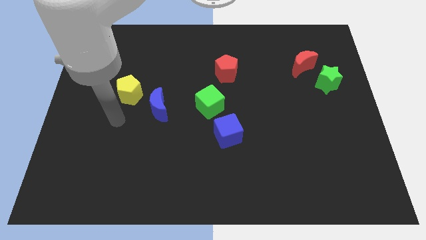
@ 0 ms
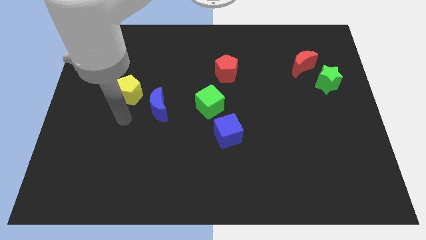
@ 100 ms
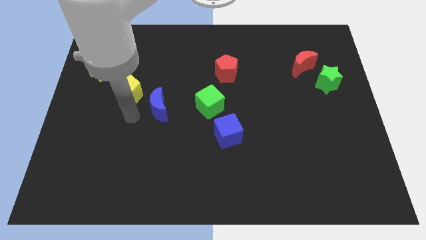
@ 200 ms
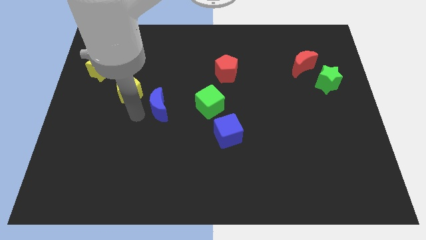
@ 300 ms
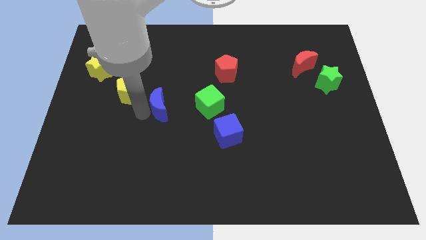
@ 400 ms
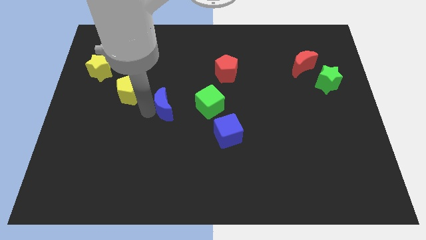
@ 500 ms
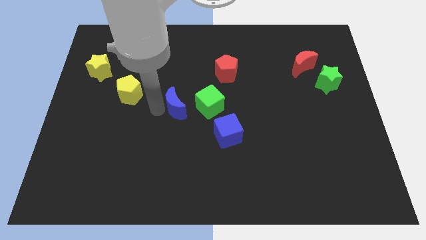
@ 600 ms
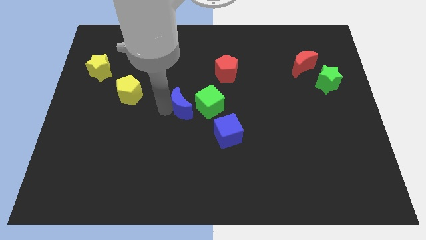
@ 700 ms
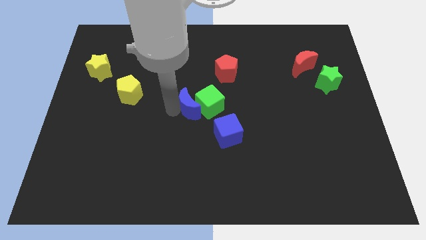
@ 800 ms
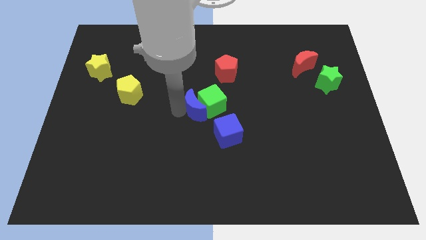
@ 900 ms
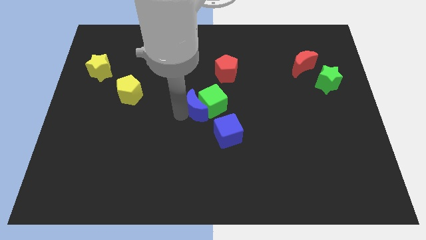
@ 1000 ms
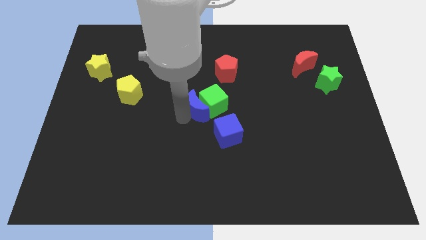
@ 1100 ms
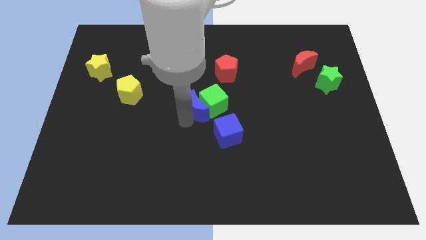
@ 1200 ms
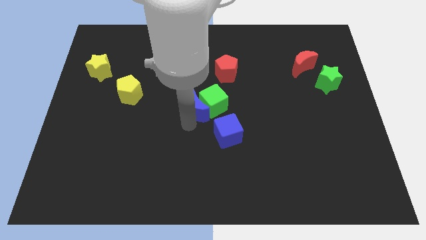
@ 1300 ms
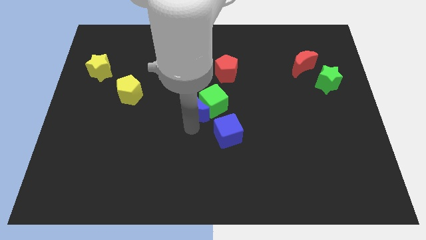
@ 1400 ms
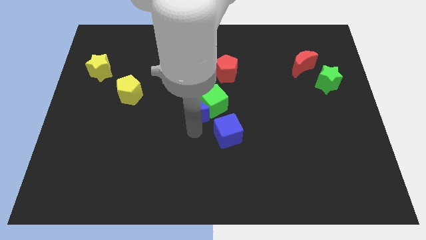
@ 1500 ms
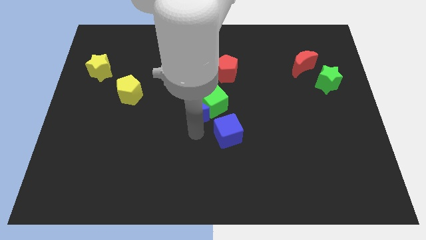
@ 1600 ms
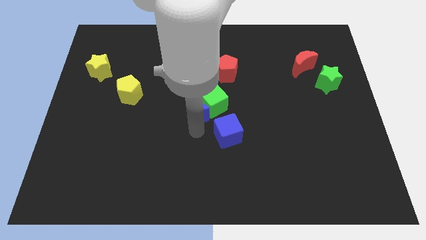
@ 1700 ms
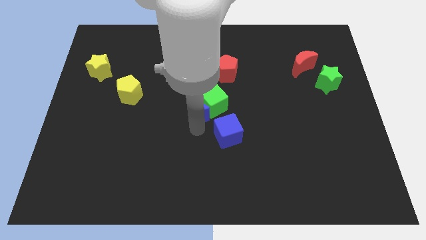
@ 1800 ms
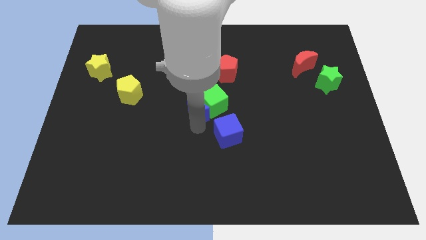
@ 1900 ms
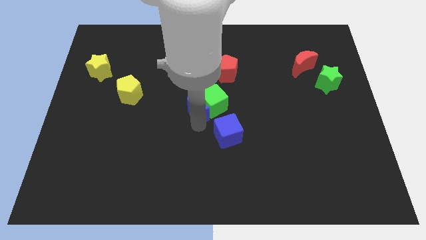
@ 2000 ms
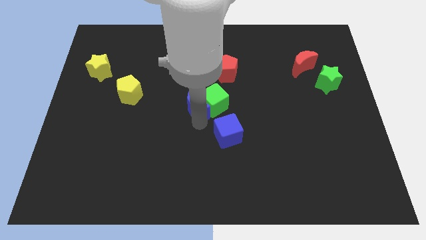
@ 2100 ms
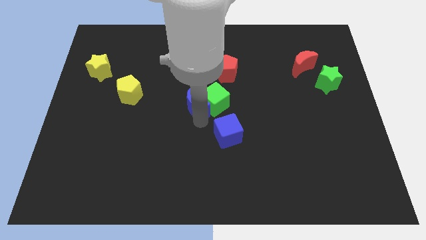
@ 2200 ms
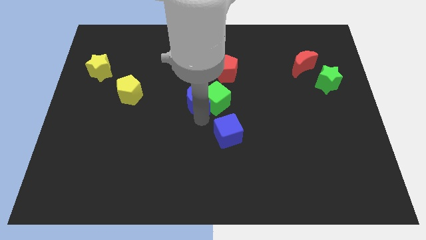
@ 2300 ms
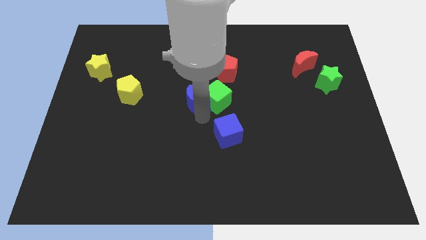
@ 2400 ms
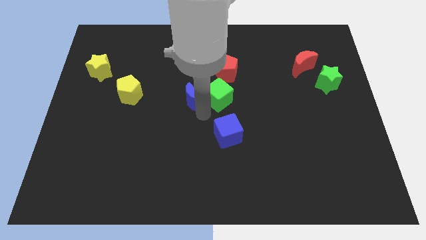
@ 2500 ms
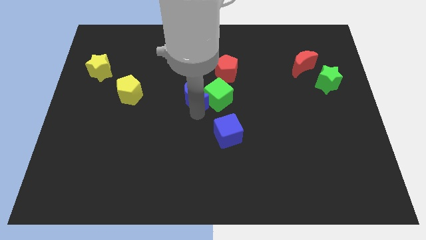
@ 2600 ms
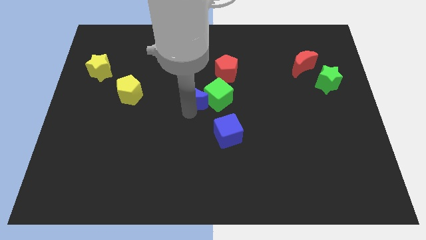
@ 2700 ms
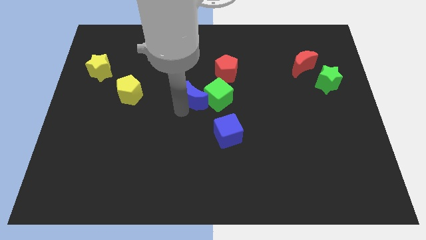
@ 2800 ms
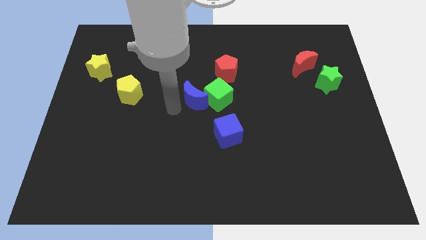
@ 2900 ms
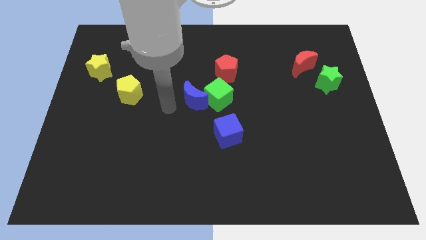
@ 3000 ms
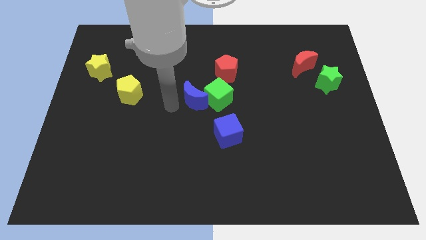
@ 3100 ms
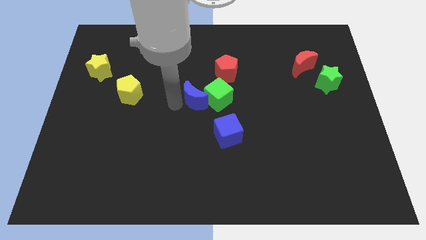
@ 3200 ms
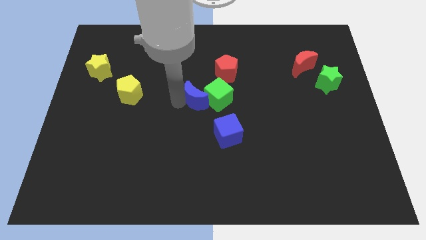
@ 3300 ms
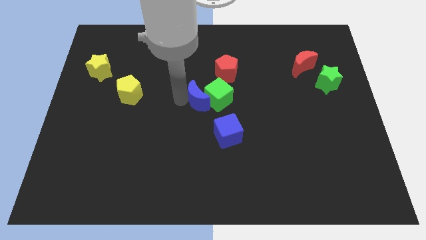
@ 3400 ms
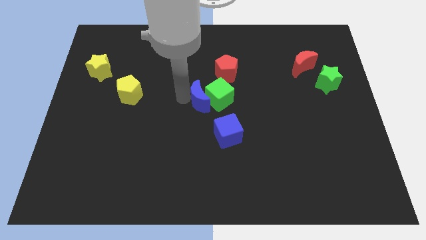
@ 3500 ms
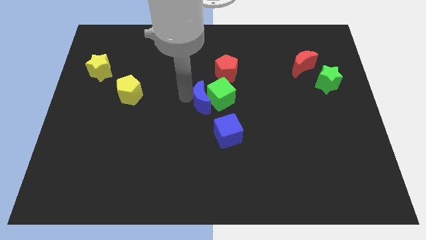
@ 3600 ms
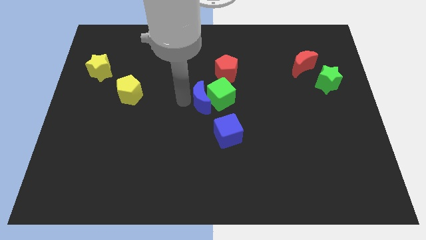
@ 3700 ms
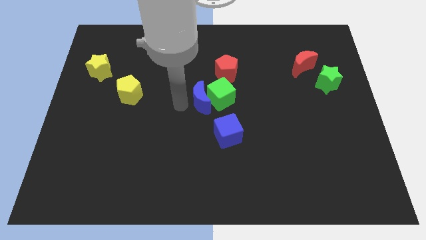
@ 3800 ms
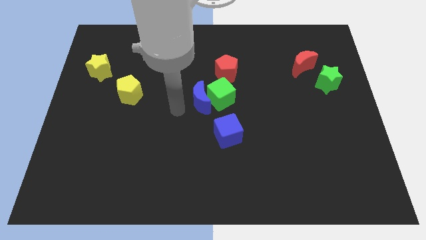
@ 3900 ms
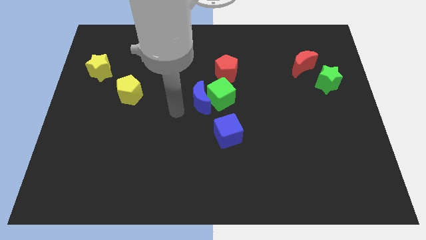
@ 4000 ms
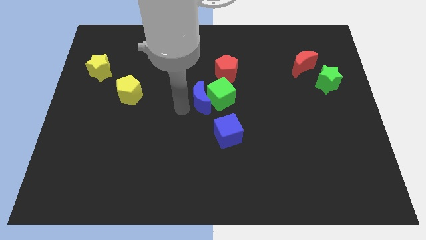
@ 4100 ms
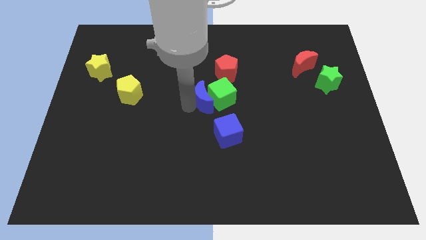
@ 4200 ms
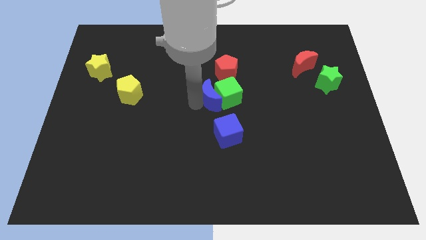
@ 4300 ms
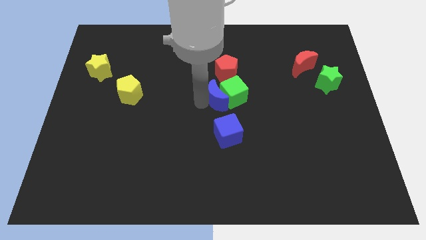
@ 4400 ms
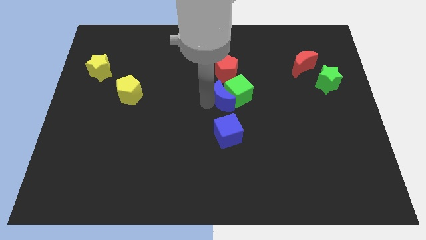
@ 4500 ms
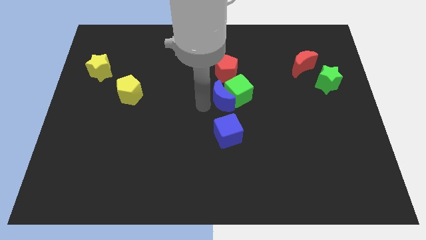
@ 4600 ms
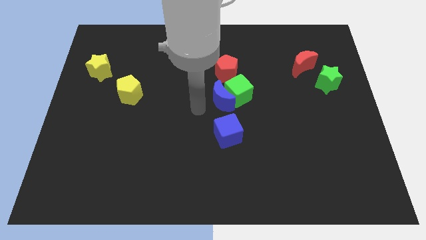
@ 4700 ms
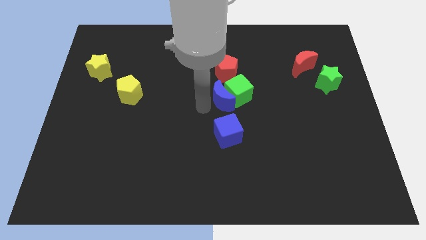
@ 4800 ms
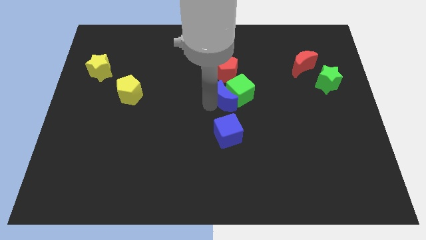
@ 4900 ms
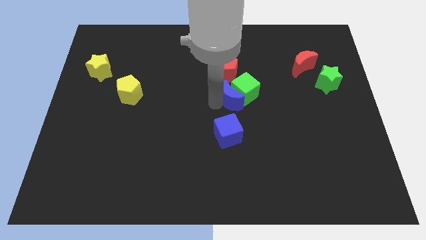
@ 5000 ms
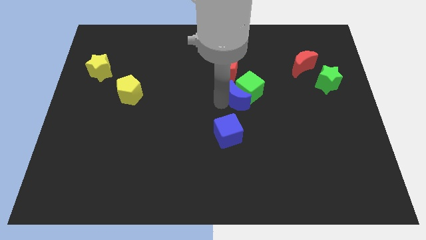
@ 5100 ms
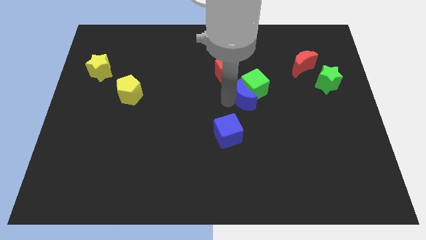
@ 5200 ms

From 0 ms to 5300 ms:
slide the blue moon right

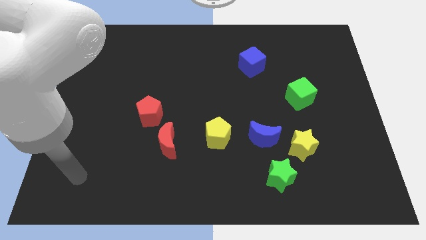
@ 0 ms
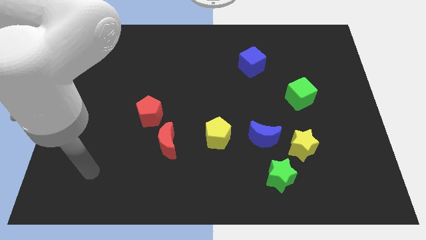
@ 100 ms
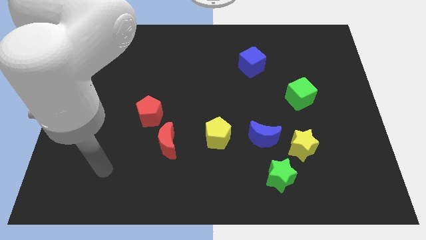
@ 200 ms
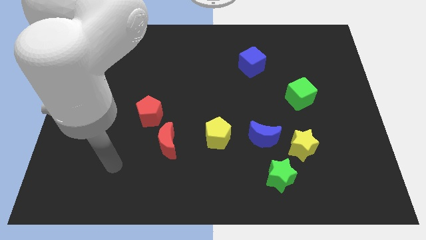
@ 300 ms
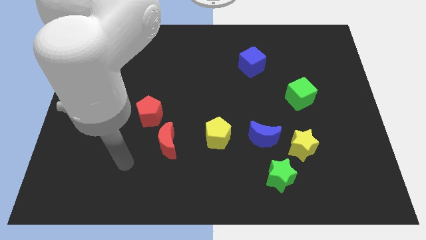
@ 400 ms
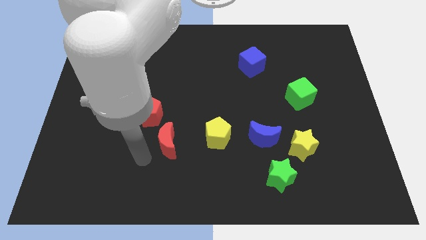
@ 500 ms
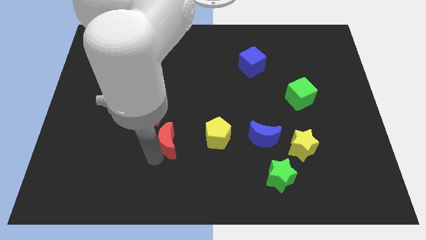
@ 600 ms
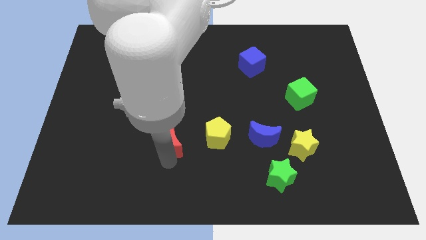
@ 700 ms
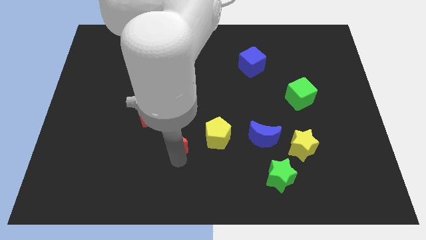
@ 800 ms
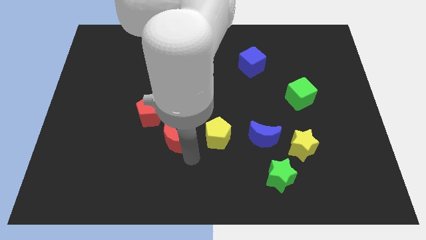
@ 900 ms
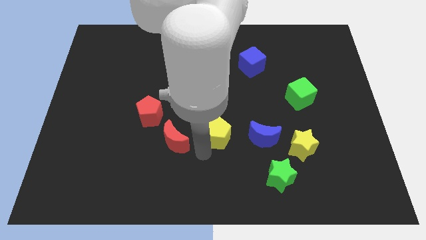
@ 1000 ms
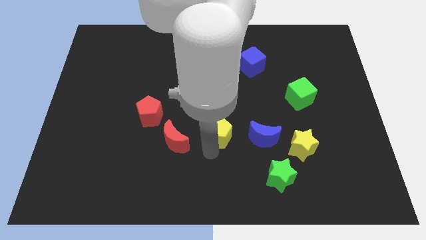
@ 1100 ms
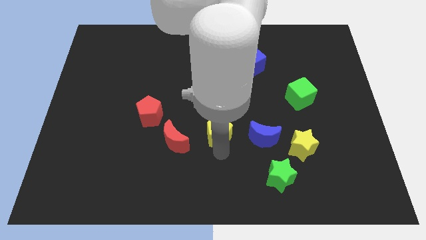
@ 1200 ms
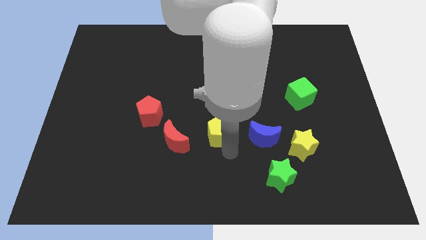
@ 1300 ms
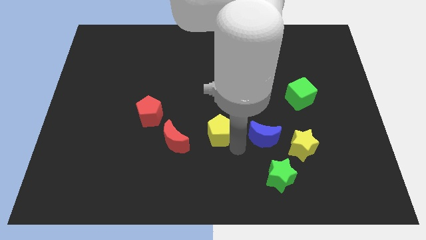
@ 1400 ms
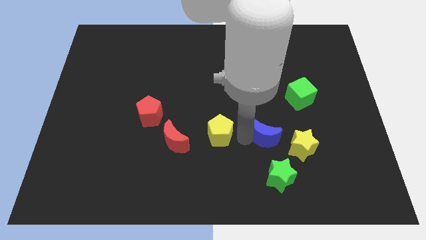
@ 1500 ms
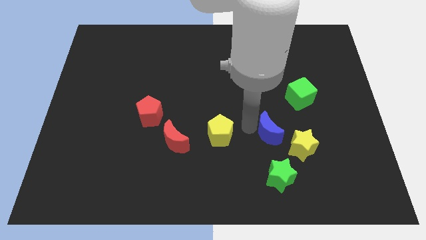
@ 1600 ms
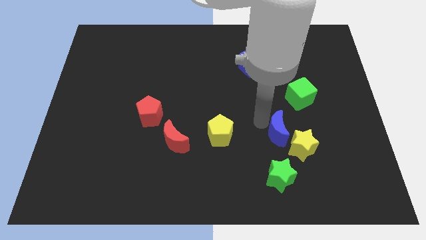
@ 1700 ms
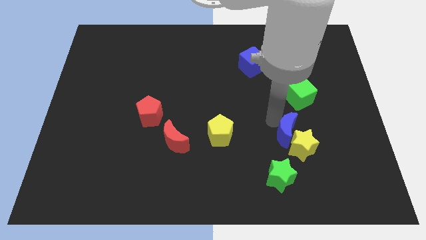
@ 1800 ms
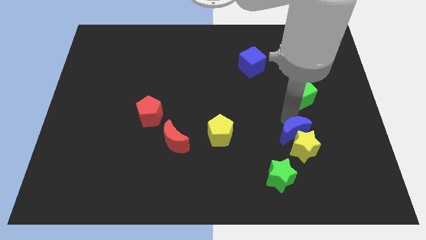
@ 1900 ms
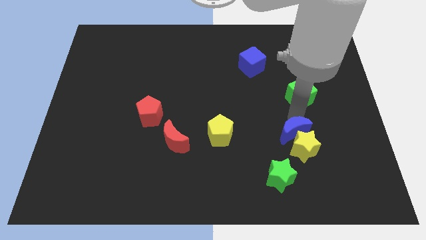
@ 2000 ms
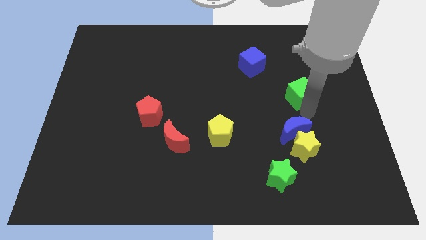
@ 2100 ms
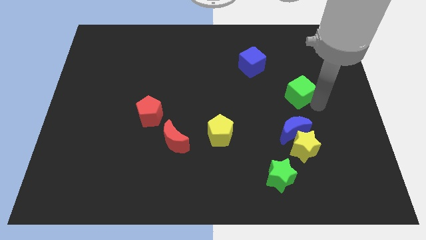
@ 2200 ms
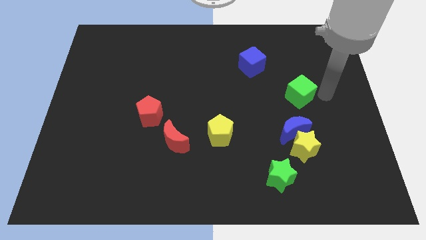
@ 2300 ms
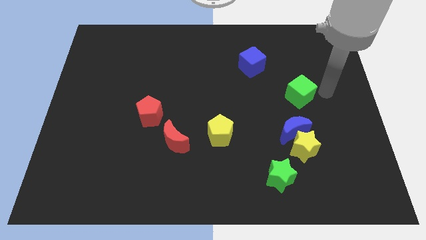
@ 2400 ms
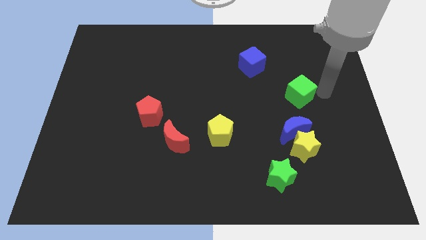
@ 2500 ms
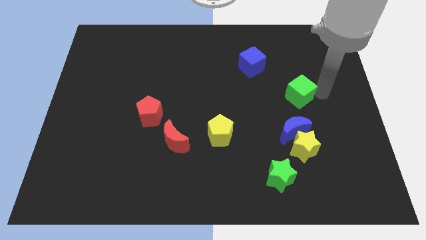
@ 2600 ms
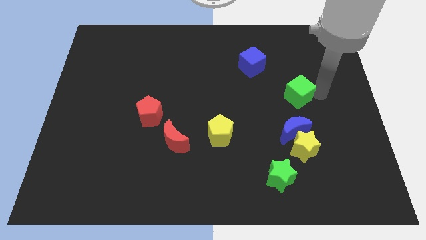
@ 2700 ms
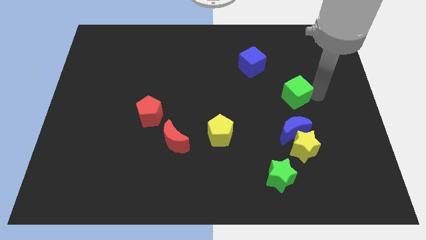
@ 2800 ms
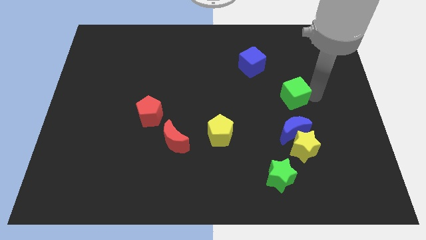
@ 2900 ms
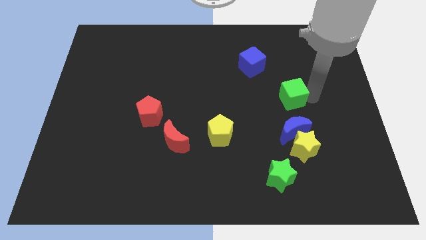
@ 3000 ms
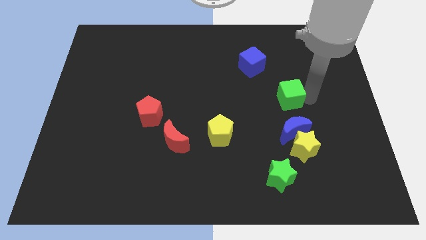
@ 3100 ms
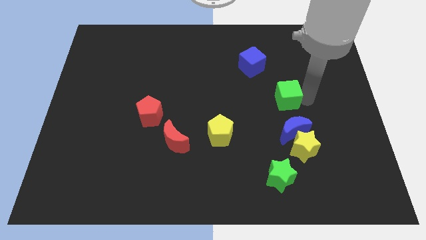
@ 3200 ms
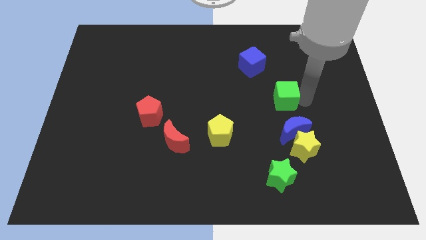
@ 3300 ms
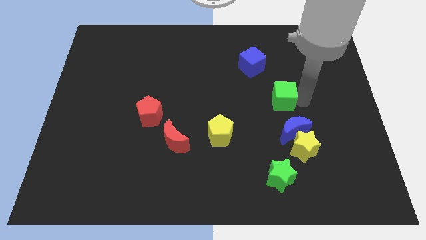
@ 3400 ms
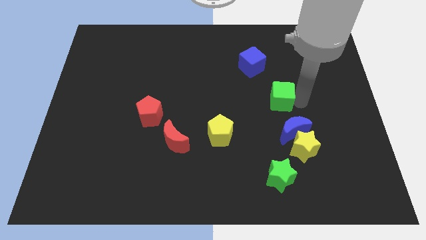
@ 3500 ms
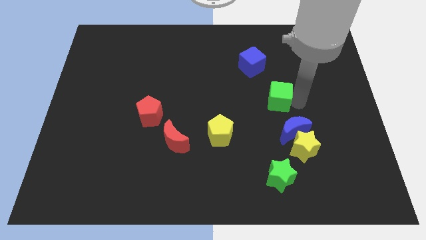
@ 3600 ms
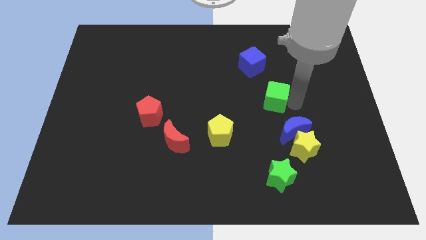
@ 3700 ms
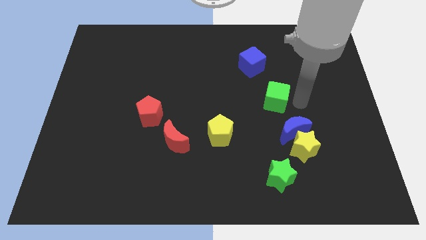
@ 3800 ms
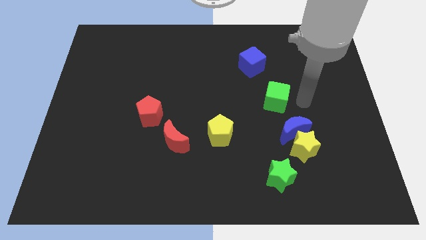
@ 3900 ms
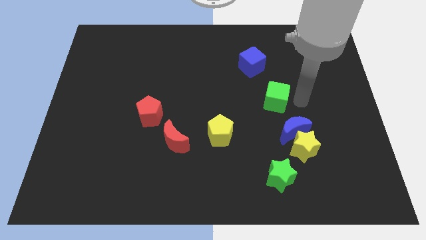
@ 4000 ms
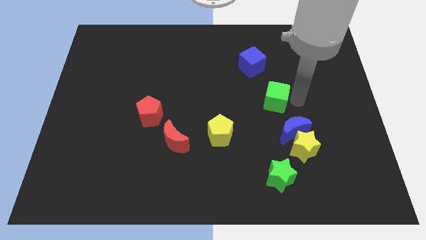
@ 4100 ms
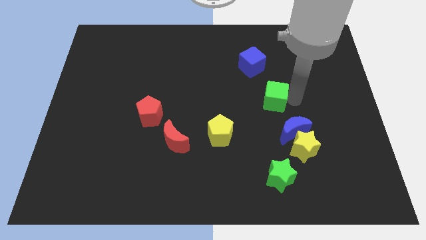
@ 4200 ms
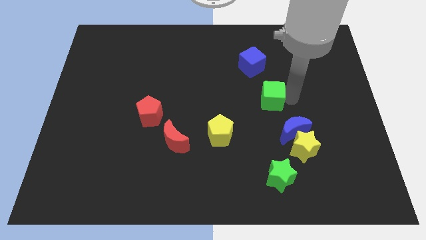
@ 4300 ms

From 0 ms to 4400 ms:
move the green cube to the left a bit
